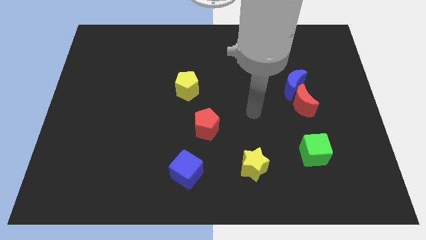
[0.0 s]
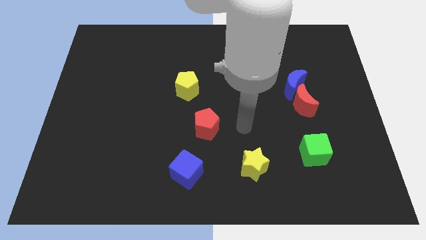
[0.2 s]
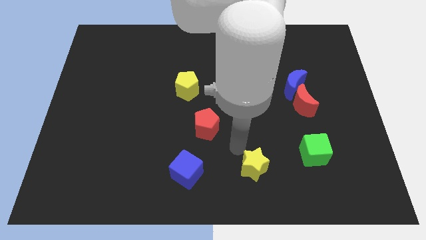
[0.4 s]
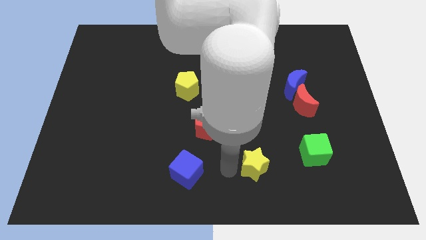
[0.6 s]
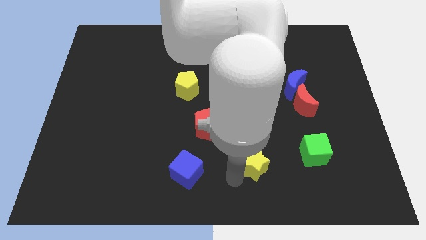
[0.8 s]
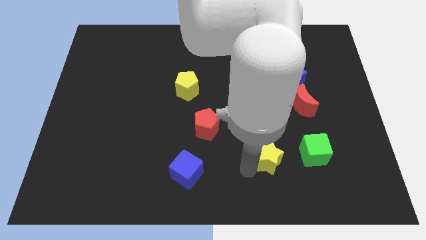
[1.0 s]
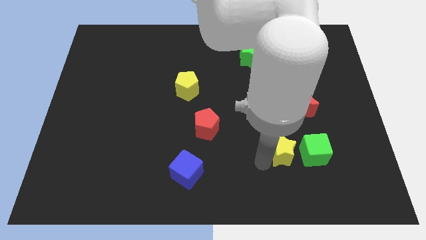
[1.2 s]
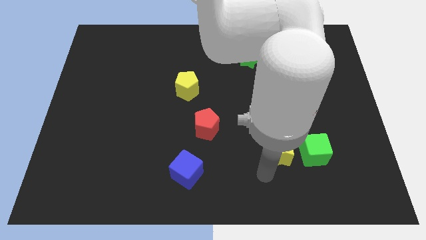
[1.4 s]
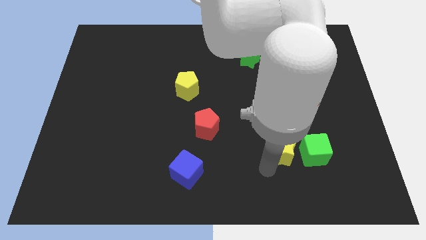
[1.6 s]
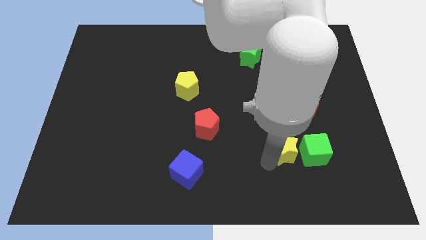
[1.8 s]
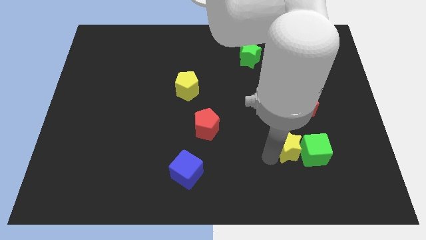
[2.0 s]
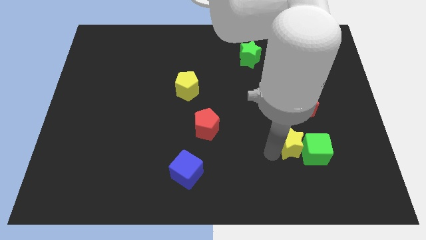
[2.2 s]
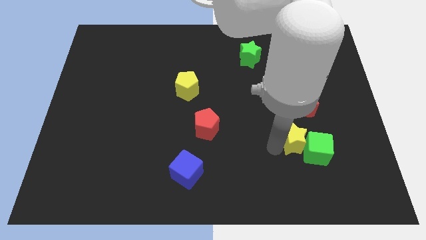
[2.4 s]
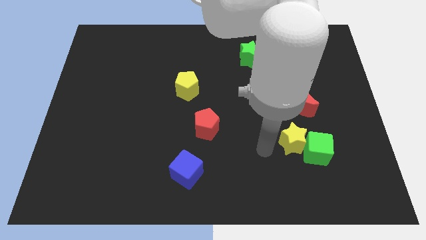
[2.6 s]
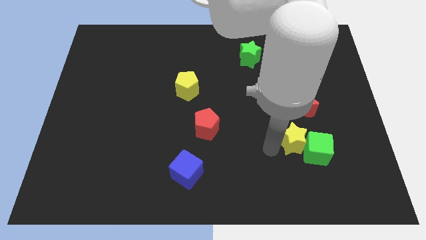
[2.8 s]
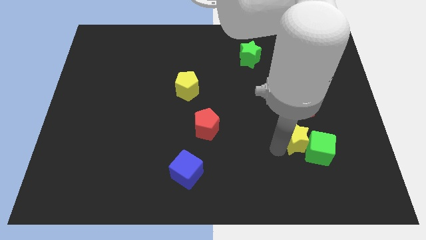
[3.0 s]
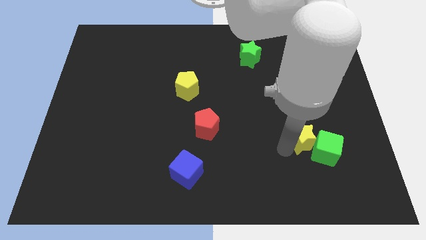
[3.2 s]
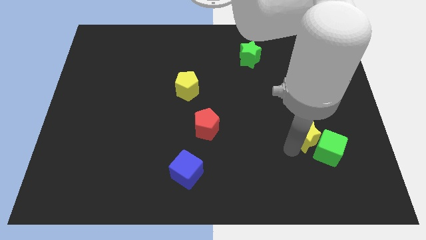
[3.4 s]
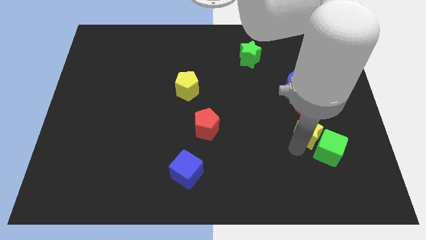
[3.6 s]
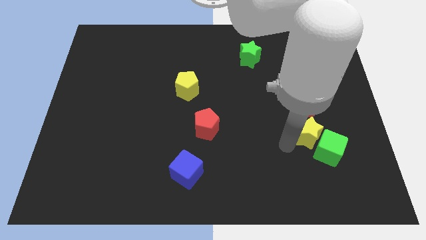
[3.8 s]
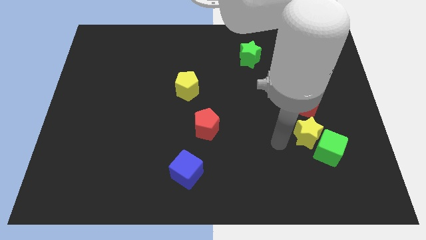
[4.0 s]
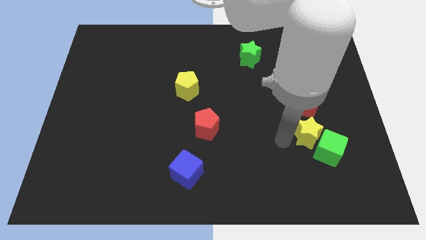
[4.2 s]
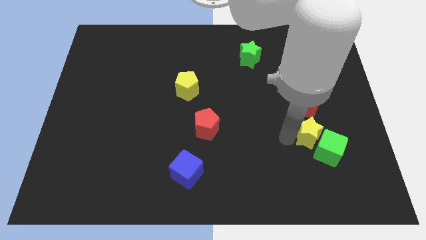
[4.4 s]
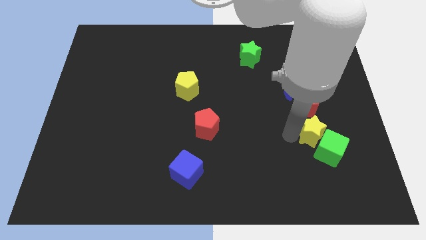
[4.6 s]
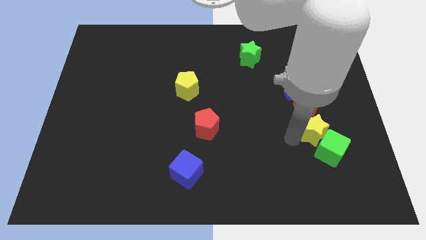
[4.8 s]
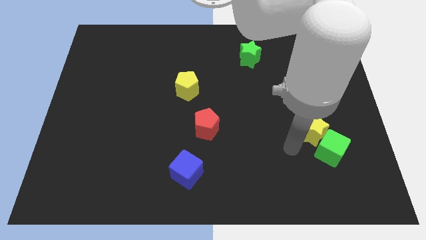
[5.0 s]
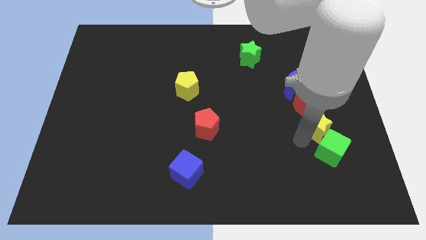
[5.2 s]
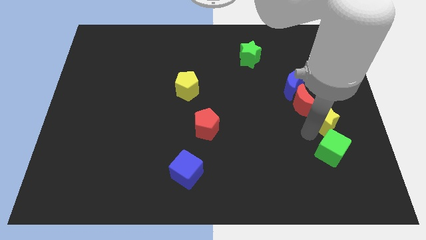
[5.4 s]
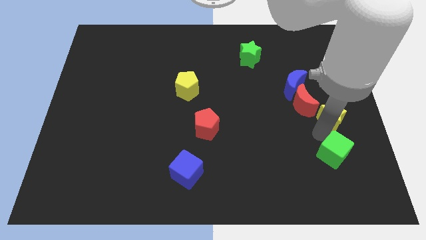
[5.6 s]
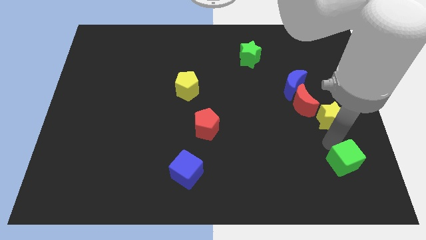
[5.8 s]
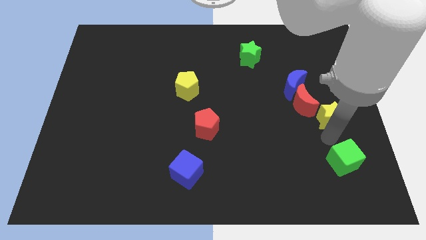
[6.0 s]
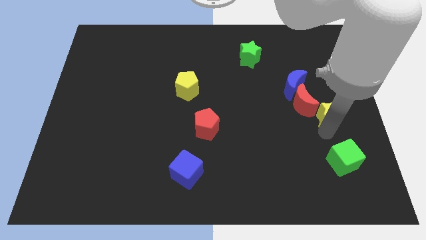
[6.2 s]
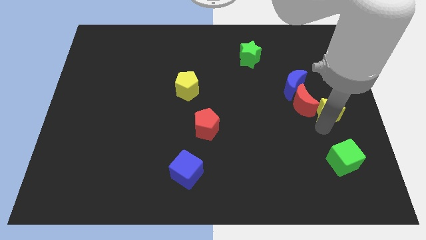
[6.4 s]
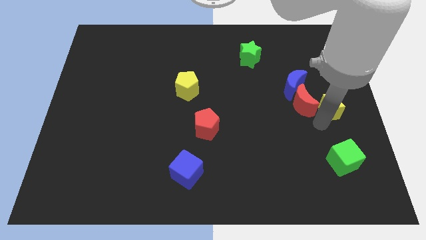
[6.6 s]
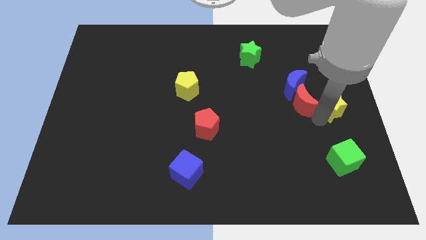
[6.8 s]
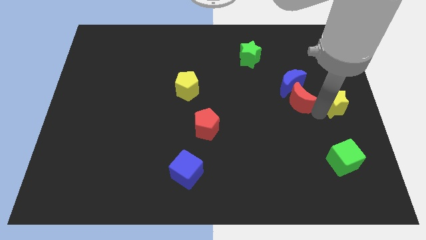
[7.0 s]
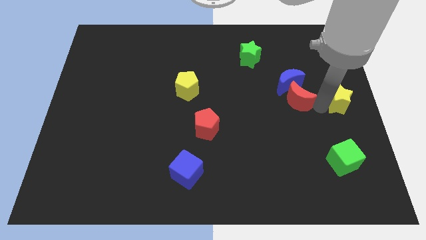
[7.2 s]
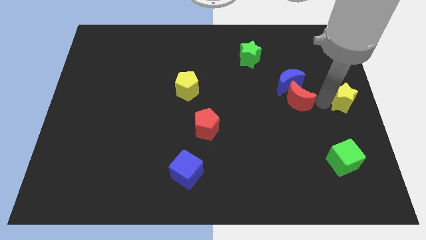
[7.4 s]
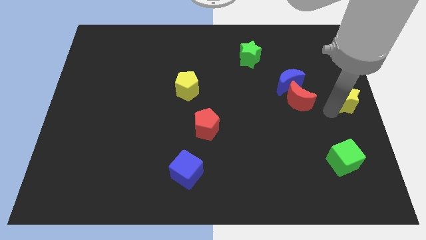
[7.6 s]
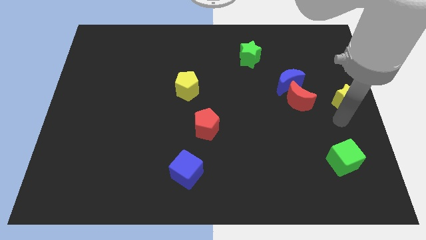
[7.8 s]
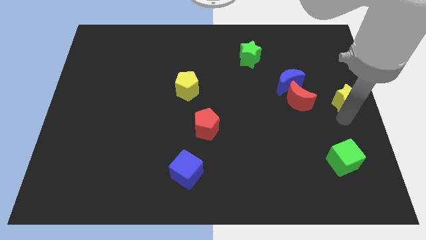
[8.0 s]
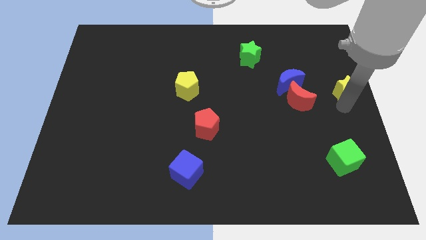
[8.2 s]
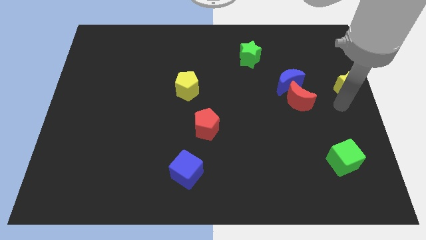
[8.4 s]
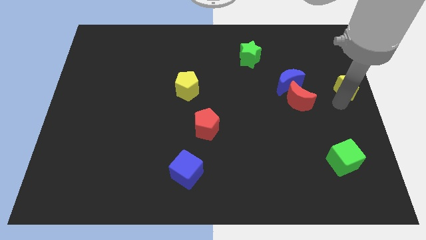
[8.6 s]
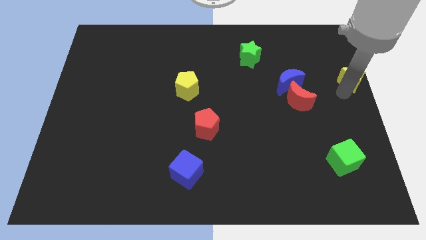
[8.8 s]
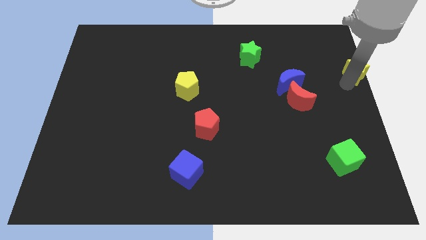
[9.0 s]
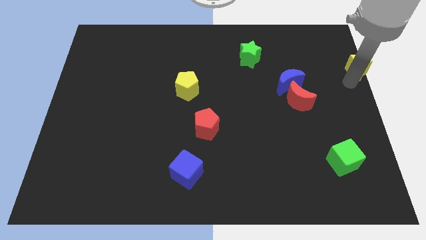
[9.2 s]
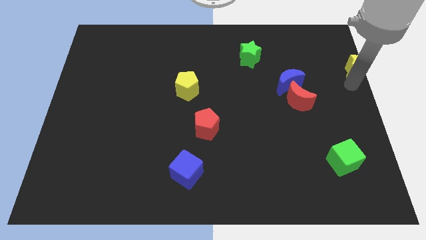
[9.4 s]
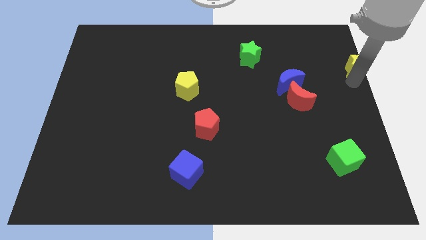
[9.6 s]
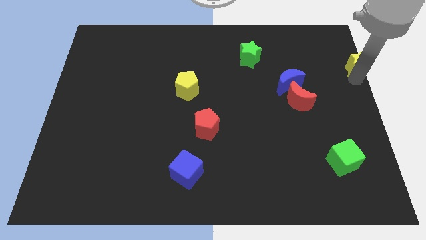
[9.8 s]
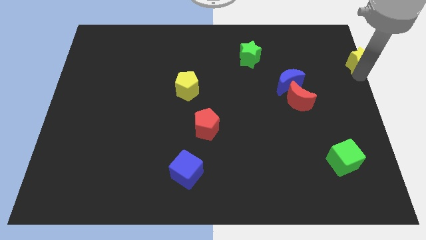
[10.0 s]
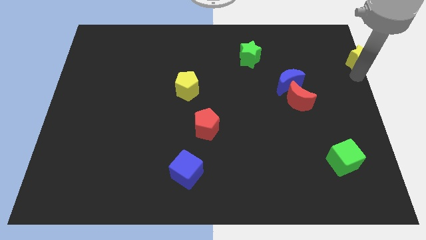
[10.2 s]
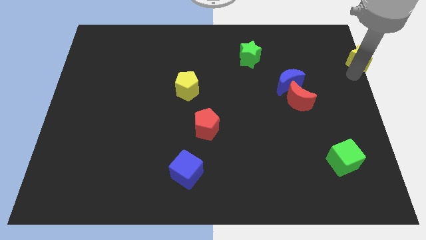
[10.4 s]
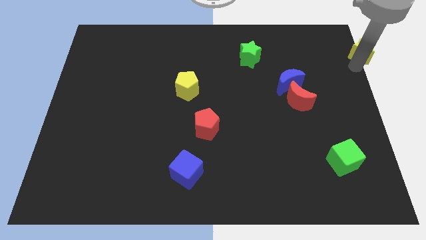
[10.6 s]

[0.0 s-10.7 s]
put the yellow star to the top right of the board

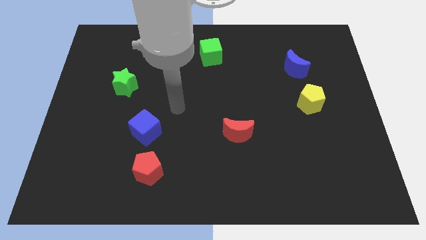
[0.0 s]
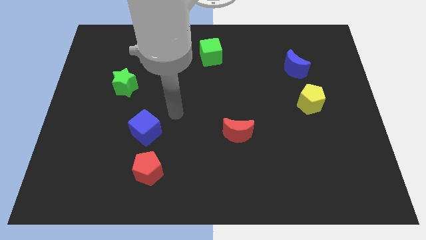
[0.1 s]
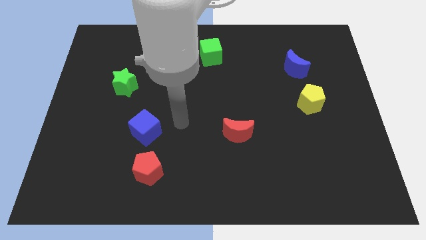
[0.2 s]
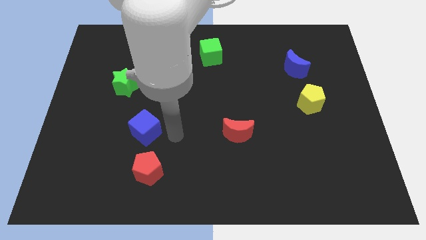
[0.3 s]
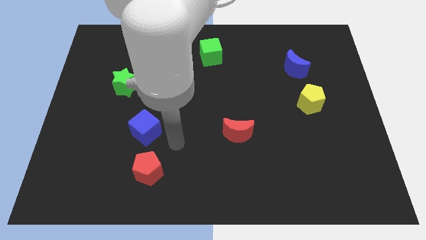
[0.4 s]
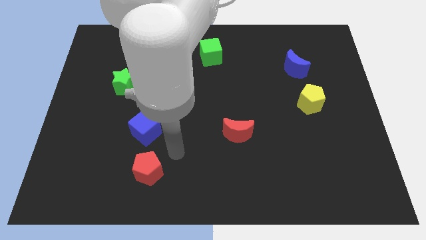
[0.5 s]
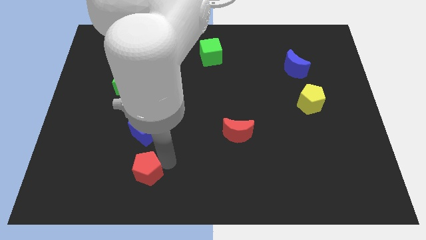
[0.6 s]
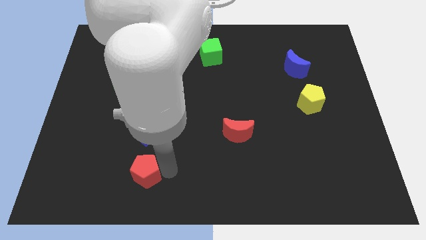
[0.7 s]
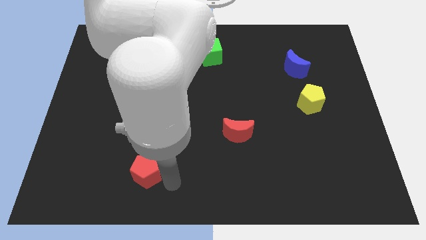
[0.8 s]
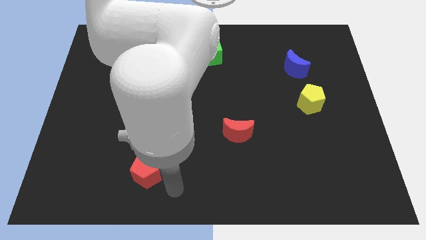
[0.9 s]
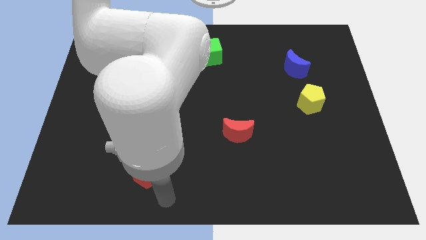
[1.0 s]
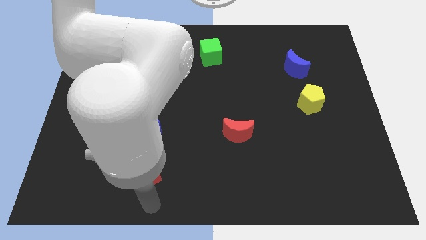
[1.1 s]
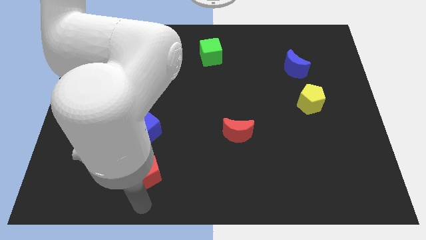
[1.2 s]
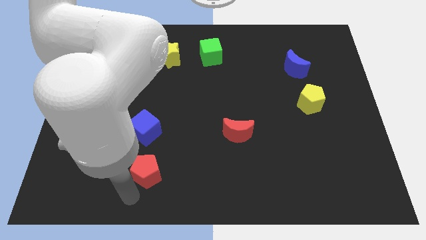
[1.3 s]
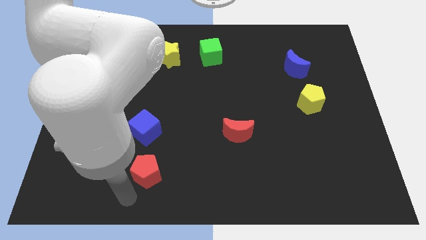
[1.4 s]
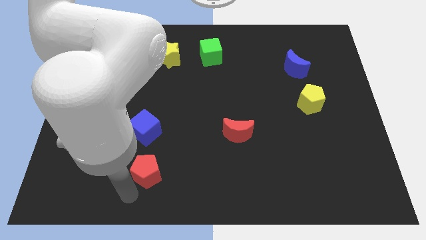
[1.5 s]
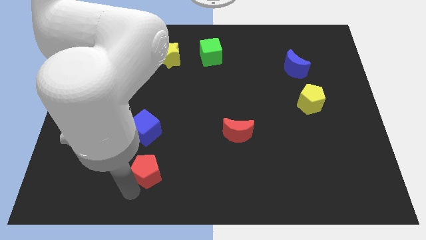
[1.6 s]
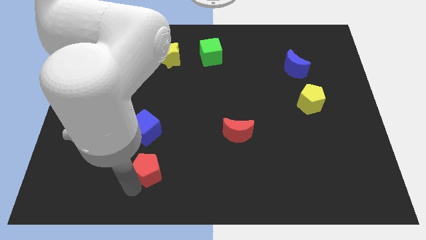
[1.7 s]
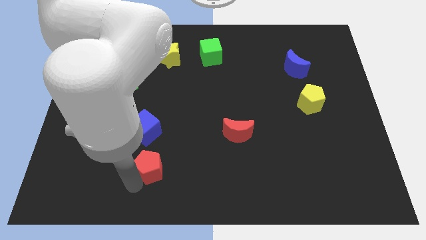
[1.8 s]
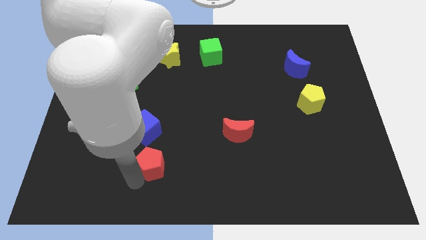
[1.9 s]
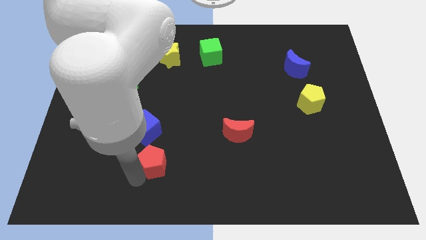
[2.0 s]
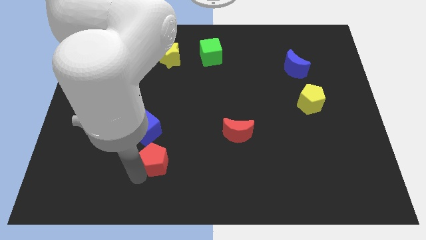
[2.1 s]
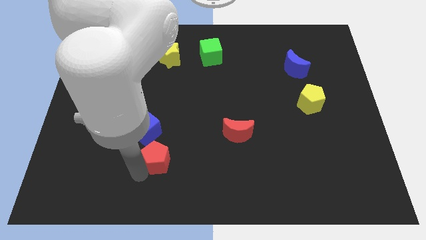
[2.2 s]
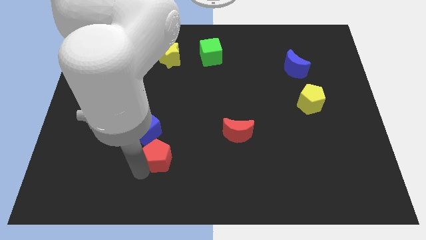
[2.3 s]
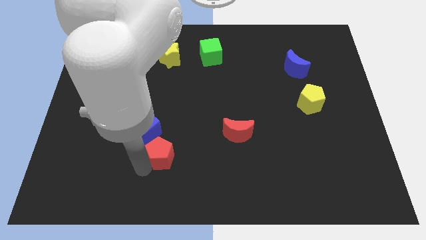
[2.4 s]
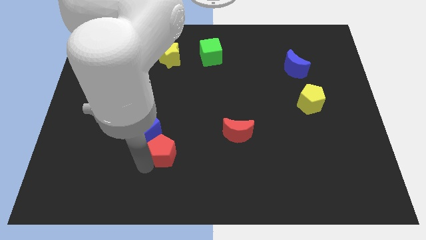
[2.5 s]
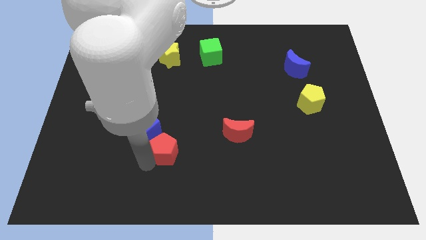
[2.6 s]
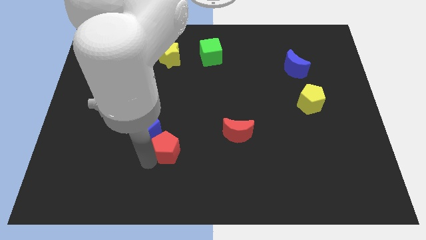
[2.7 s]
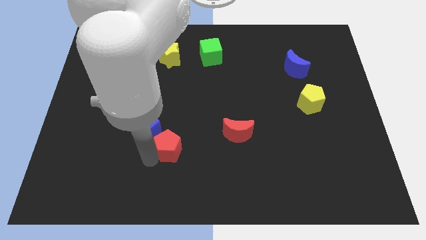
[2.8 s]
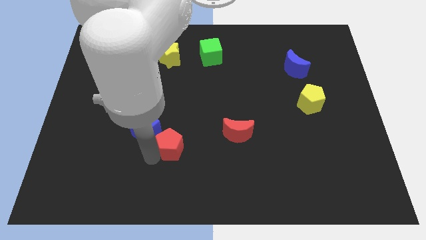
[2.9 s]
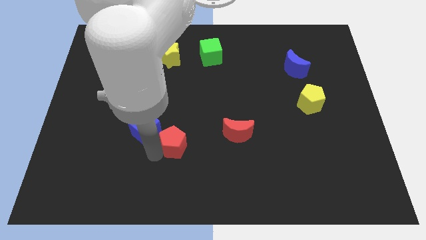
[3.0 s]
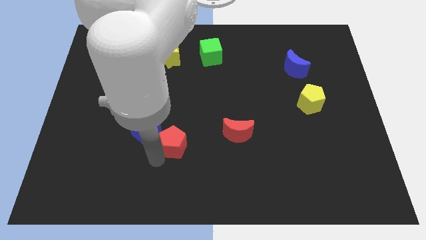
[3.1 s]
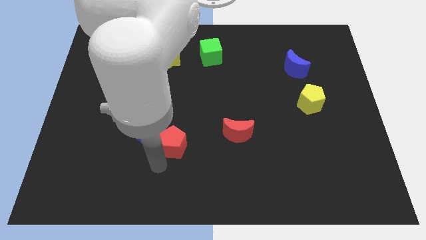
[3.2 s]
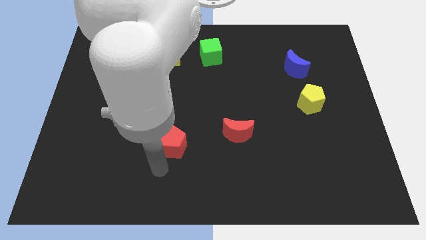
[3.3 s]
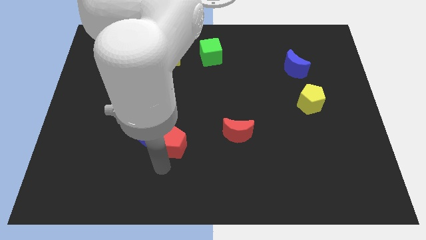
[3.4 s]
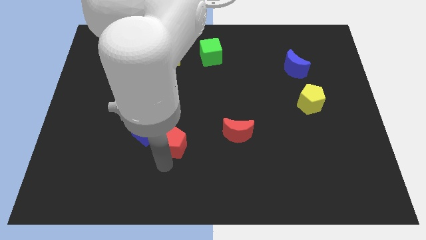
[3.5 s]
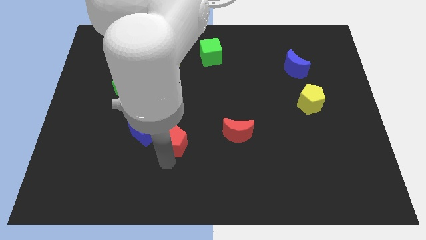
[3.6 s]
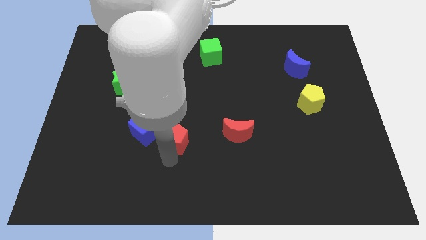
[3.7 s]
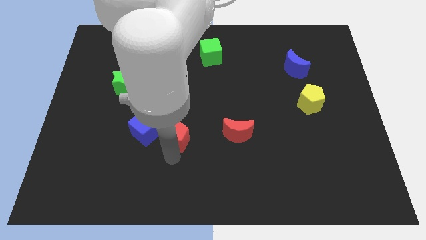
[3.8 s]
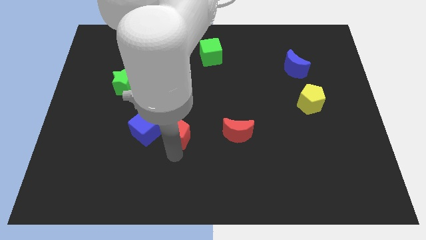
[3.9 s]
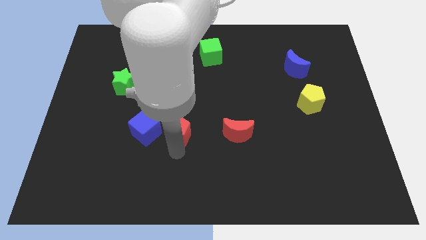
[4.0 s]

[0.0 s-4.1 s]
slide the red pentagon to the center
